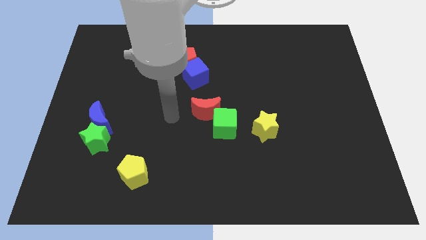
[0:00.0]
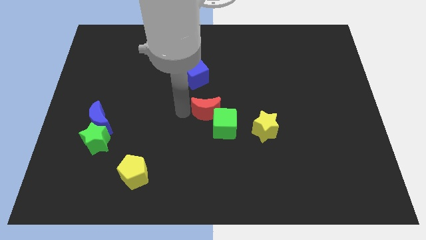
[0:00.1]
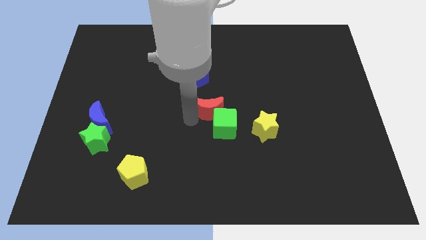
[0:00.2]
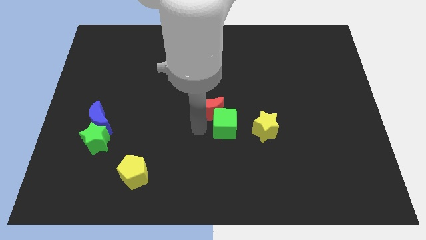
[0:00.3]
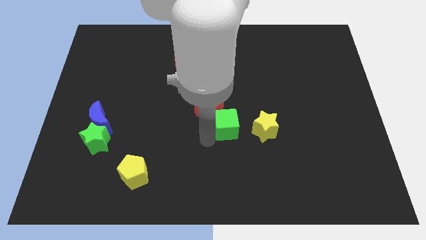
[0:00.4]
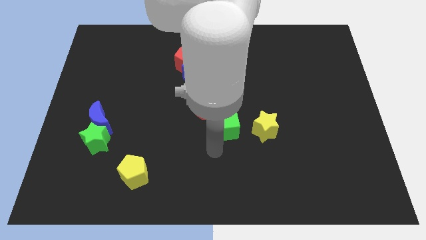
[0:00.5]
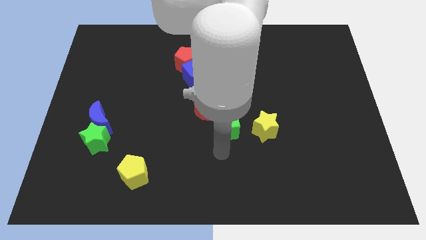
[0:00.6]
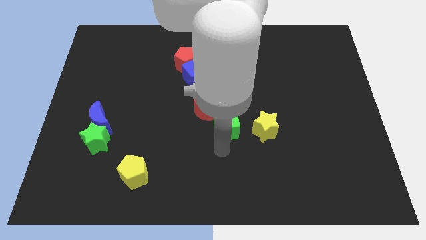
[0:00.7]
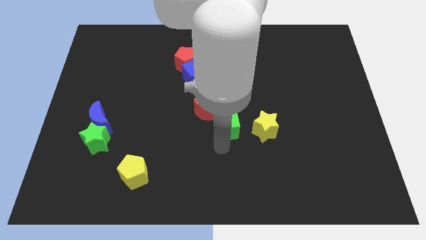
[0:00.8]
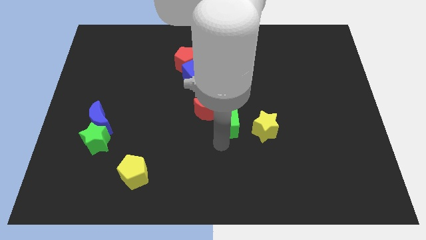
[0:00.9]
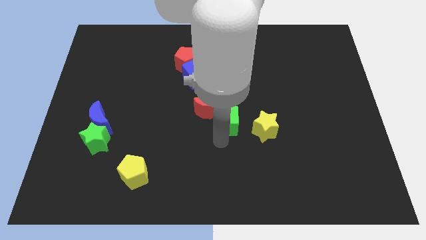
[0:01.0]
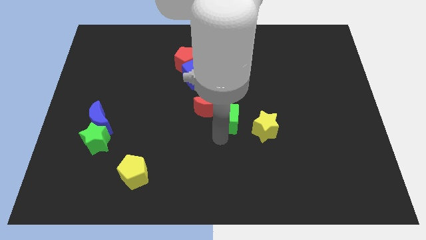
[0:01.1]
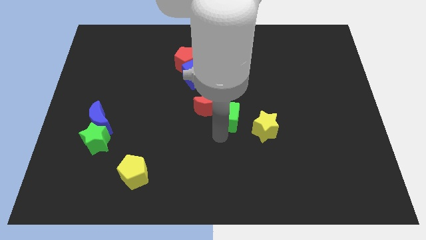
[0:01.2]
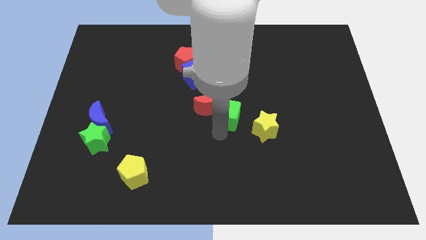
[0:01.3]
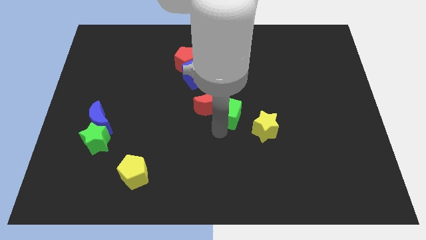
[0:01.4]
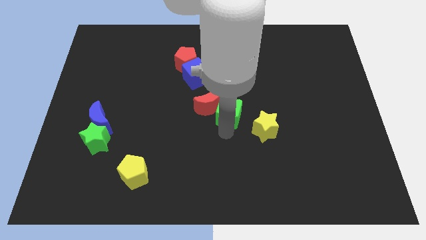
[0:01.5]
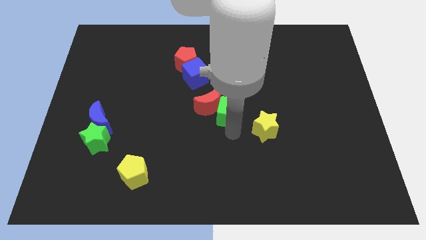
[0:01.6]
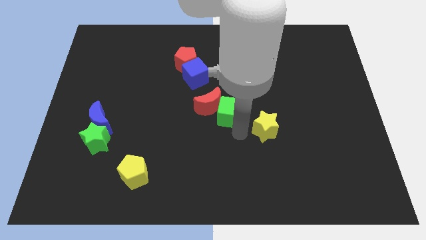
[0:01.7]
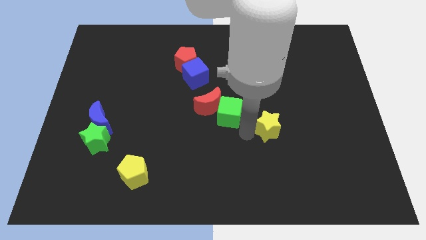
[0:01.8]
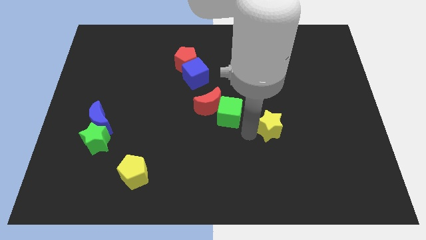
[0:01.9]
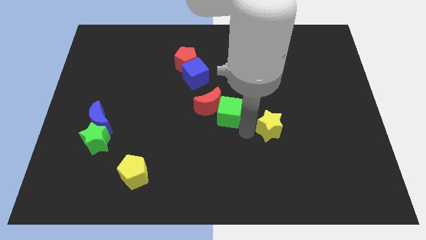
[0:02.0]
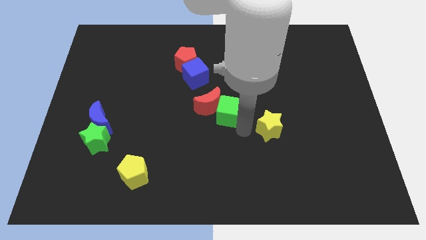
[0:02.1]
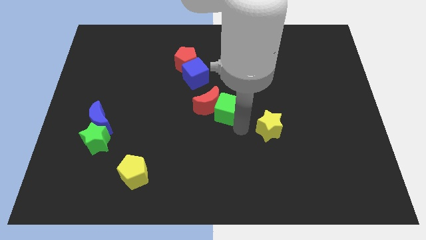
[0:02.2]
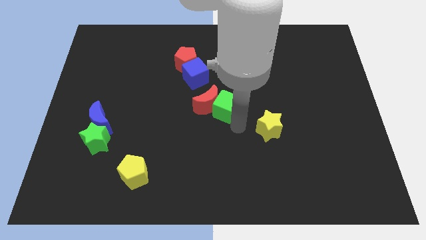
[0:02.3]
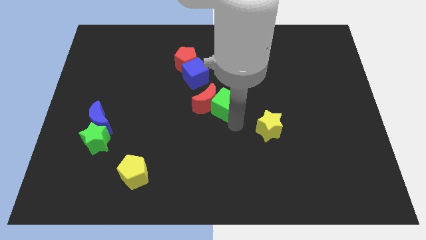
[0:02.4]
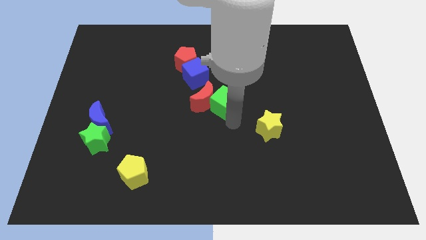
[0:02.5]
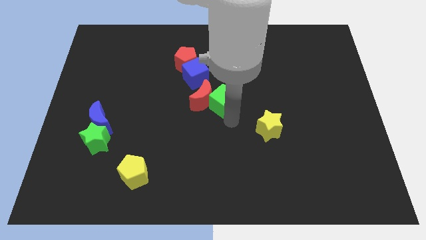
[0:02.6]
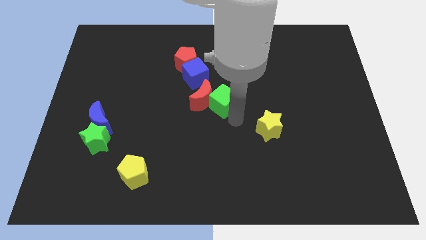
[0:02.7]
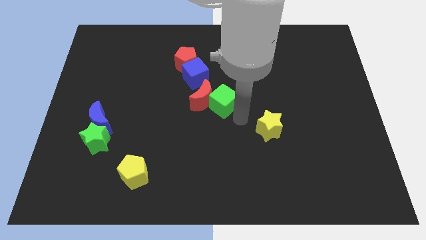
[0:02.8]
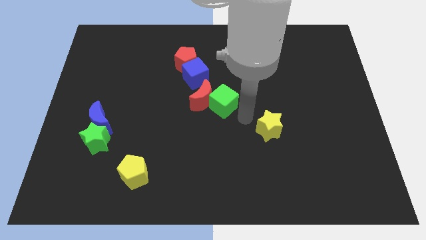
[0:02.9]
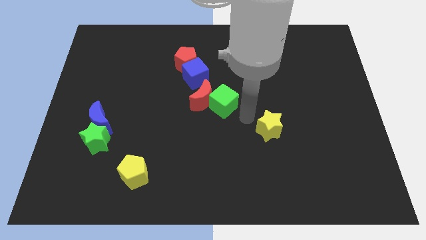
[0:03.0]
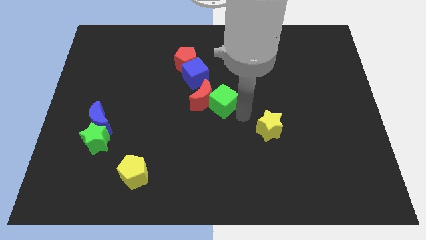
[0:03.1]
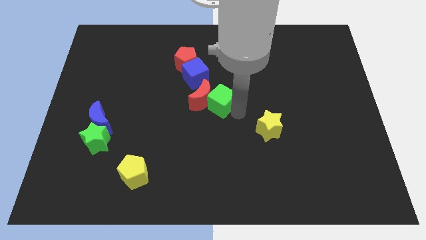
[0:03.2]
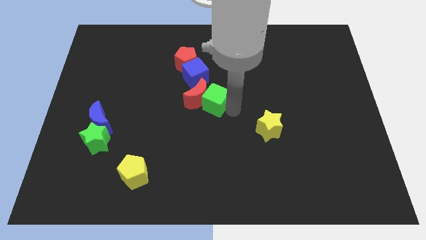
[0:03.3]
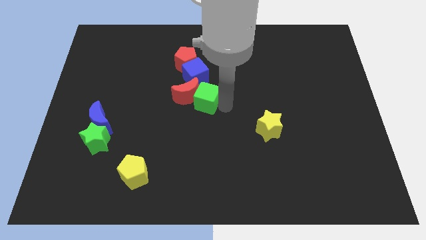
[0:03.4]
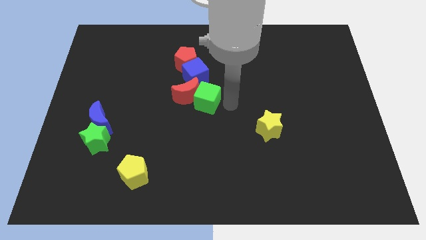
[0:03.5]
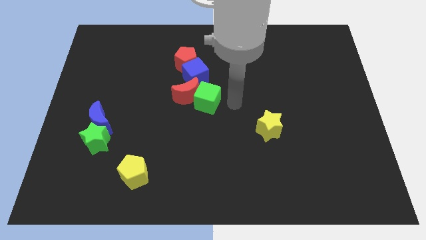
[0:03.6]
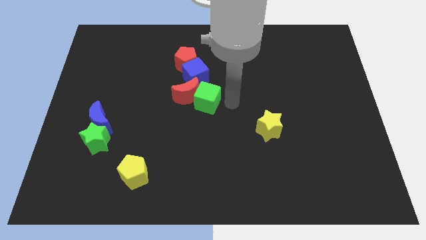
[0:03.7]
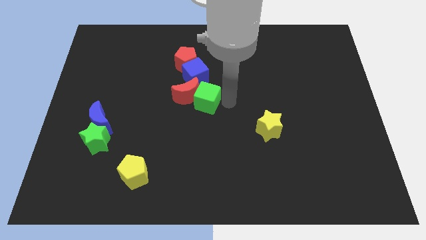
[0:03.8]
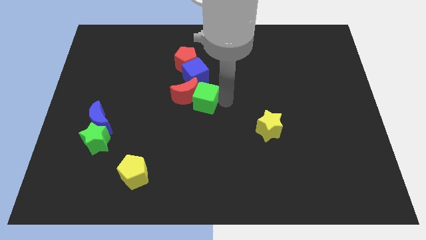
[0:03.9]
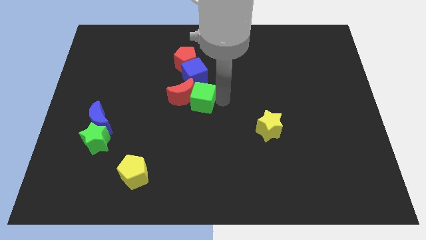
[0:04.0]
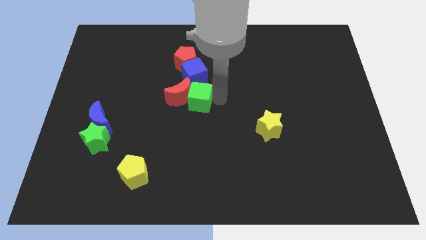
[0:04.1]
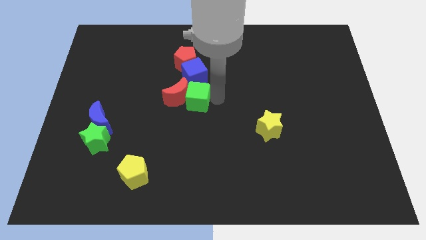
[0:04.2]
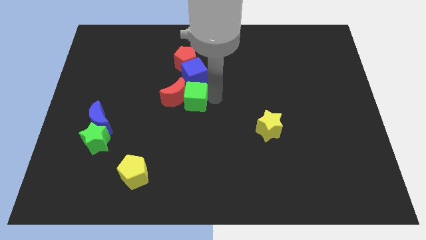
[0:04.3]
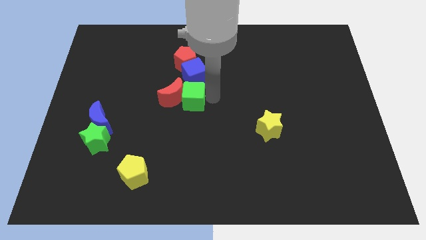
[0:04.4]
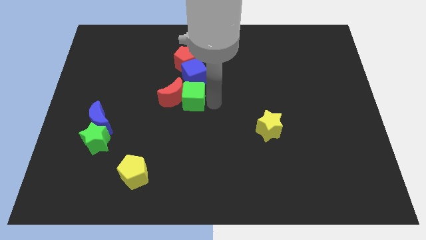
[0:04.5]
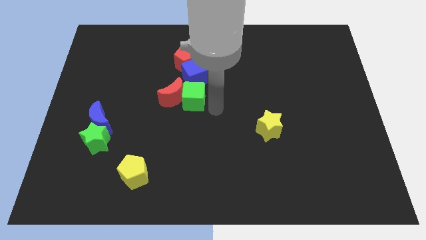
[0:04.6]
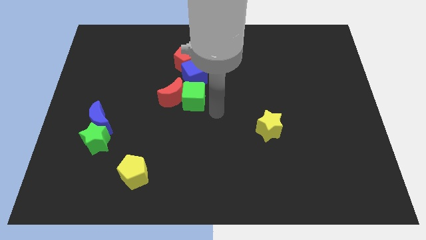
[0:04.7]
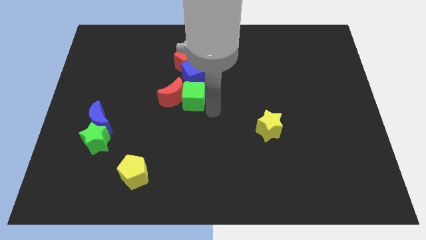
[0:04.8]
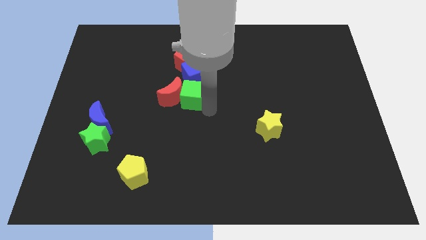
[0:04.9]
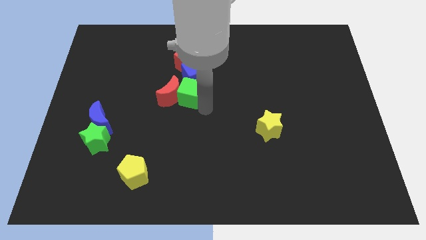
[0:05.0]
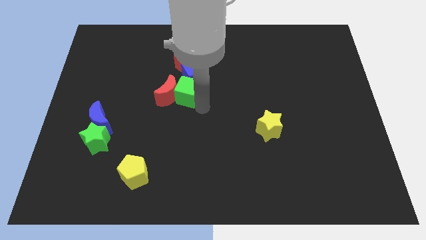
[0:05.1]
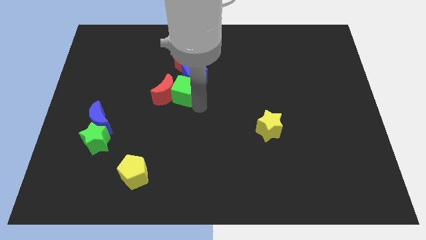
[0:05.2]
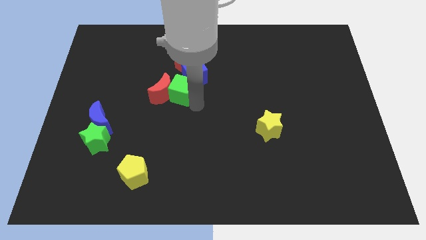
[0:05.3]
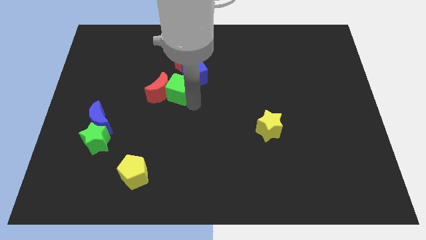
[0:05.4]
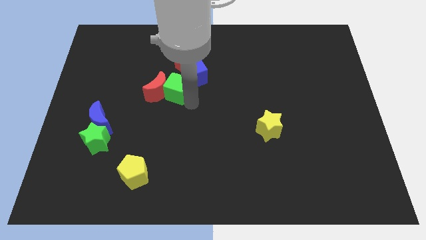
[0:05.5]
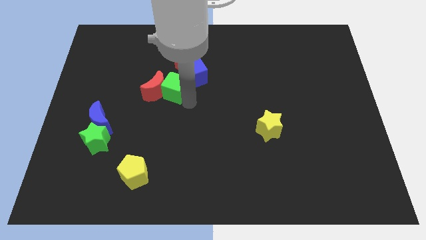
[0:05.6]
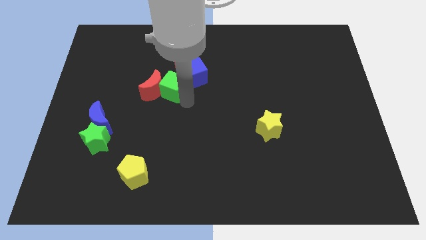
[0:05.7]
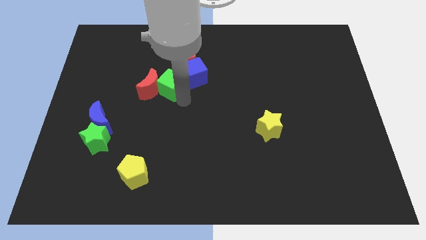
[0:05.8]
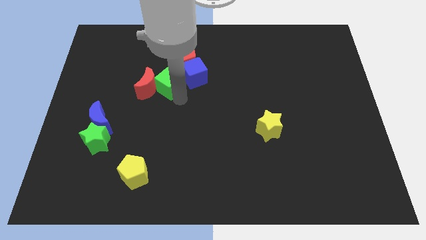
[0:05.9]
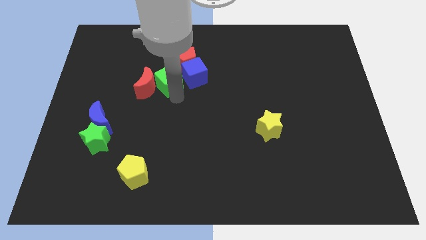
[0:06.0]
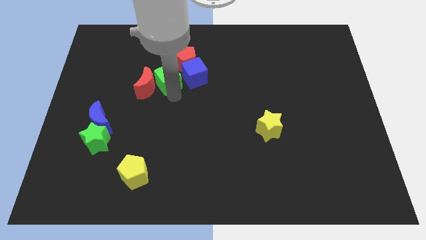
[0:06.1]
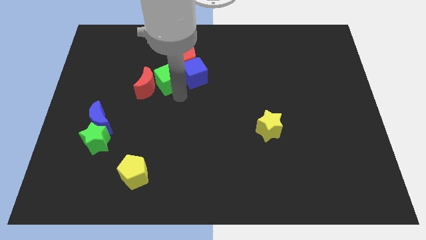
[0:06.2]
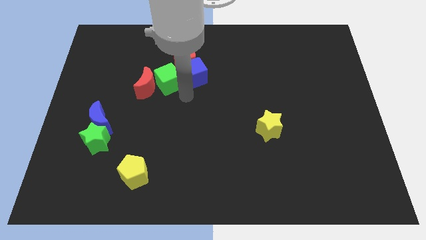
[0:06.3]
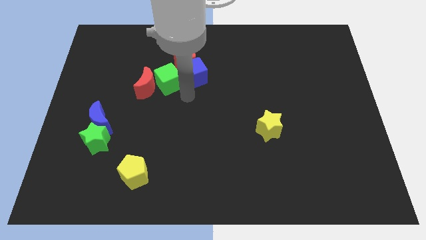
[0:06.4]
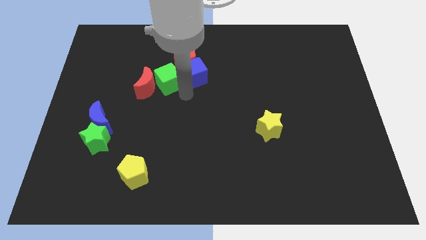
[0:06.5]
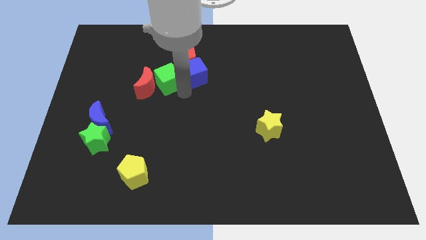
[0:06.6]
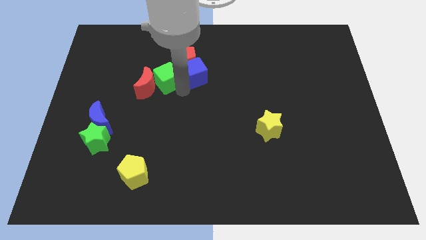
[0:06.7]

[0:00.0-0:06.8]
push the green cube upwards and left diagonally

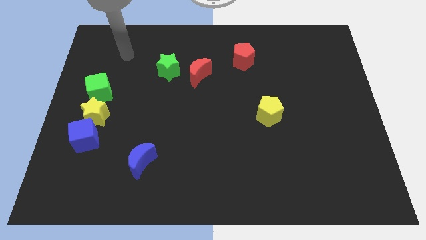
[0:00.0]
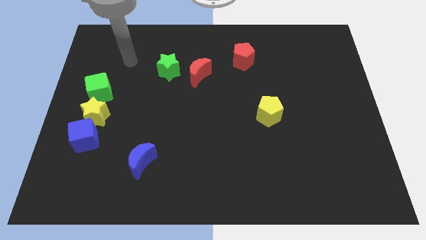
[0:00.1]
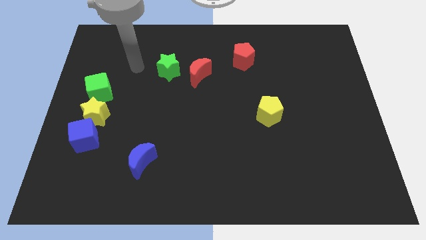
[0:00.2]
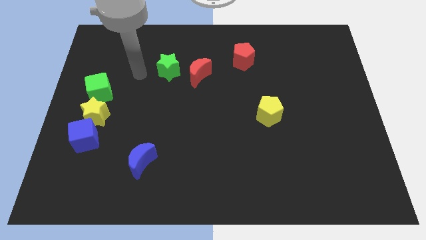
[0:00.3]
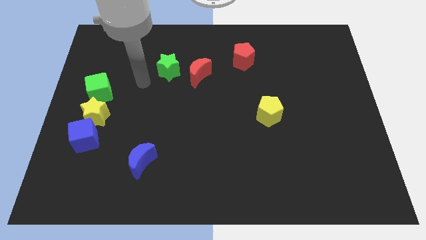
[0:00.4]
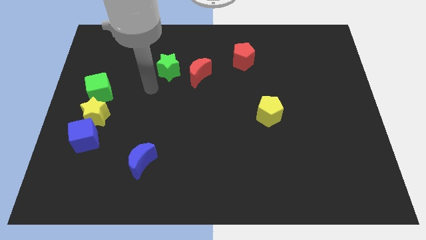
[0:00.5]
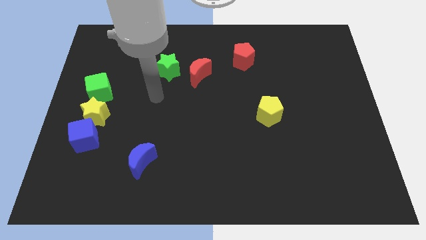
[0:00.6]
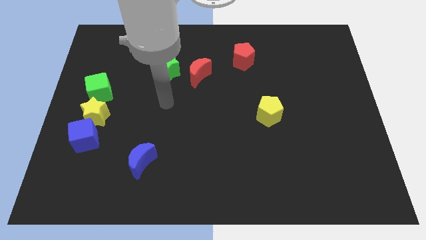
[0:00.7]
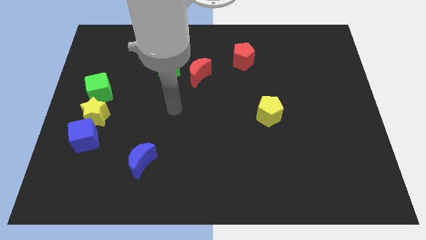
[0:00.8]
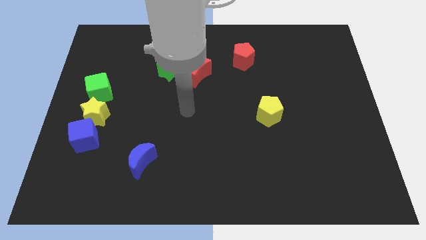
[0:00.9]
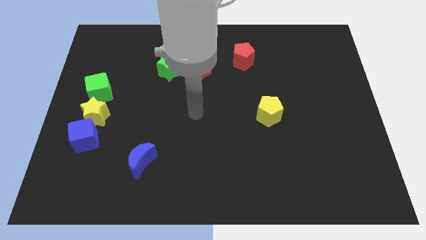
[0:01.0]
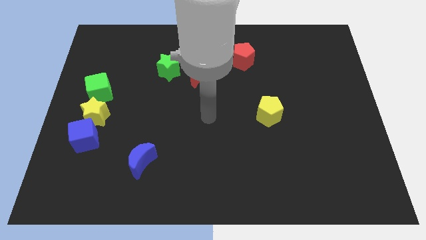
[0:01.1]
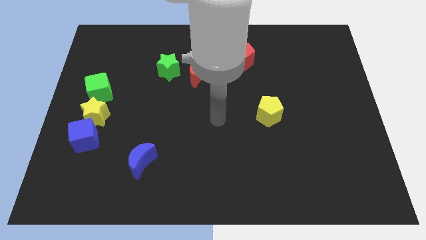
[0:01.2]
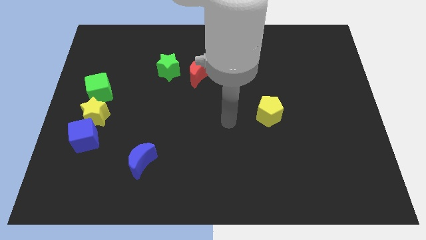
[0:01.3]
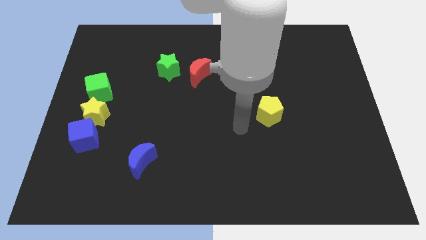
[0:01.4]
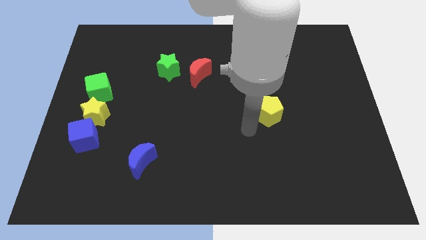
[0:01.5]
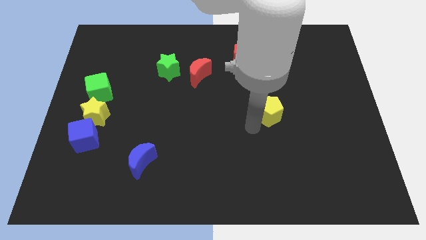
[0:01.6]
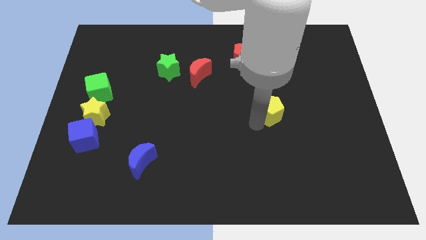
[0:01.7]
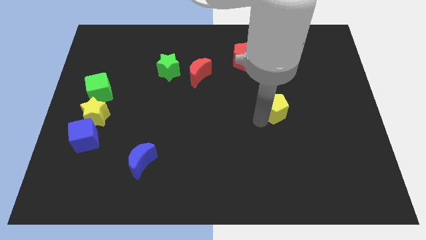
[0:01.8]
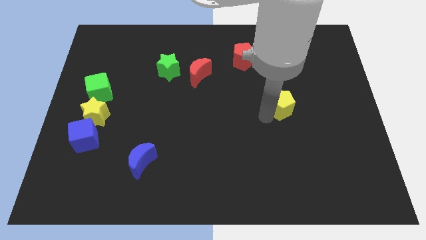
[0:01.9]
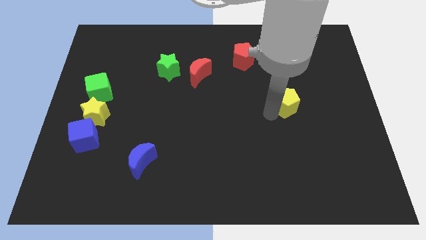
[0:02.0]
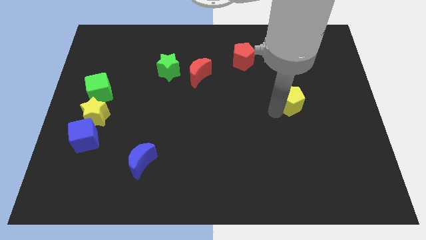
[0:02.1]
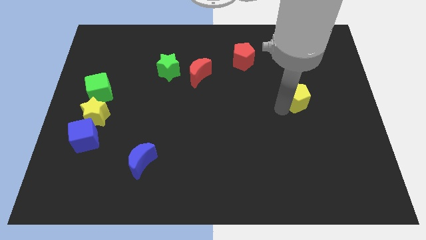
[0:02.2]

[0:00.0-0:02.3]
move the yellow pentagon a little diagonally up and right
